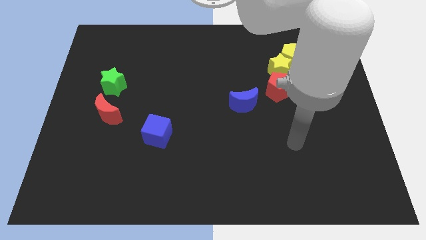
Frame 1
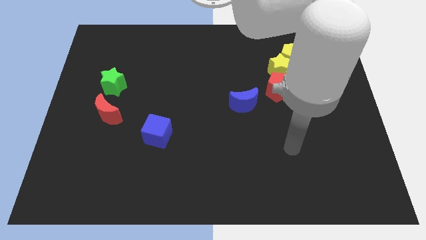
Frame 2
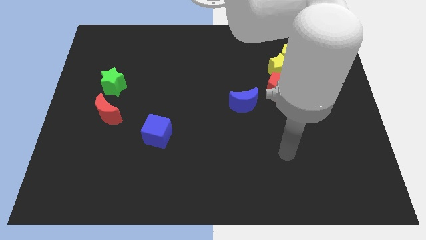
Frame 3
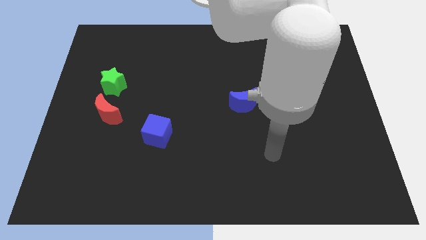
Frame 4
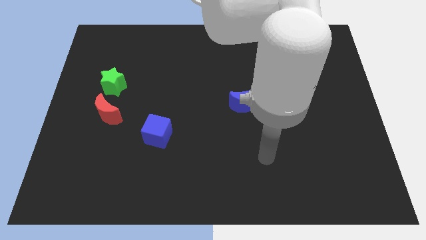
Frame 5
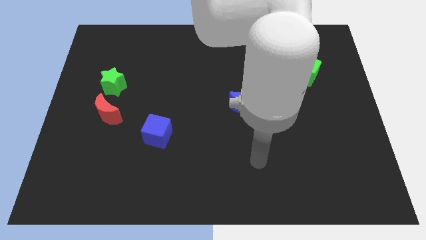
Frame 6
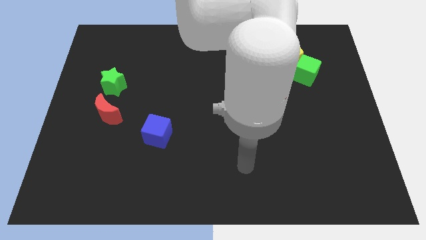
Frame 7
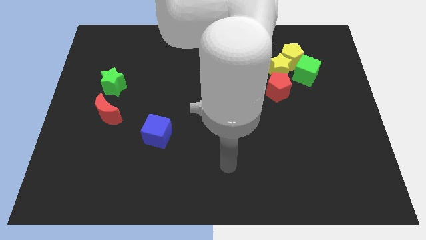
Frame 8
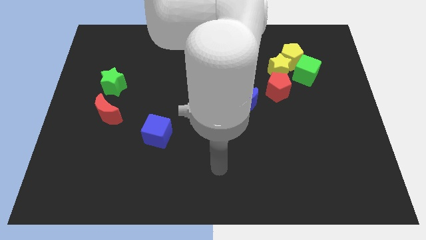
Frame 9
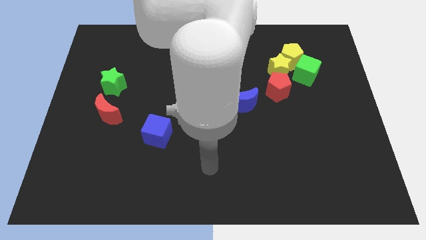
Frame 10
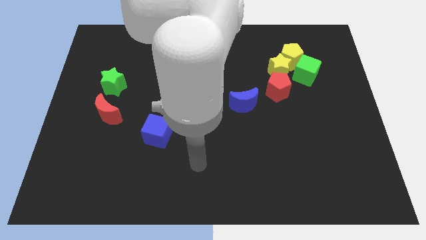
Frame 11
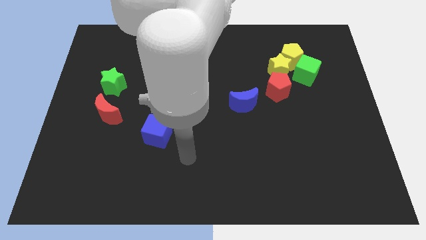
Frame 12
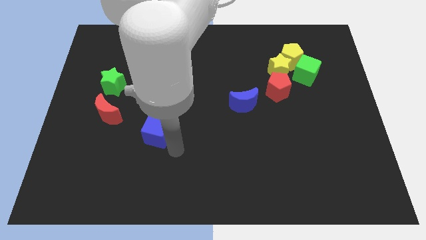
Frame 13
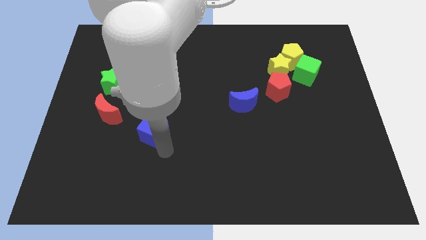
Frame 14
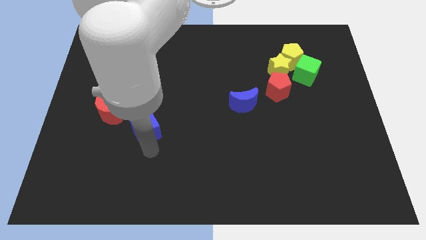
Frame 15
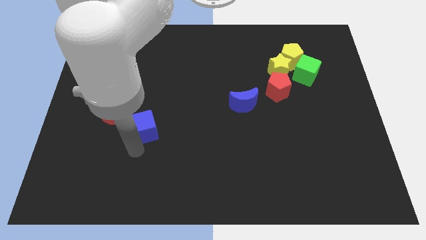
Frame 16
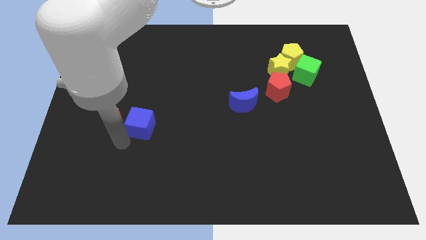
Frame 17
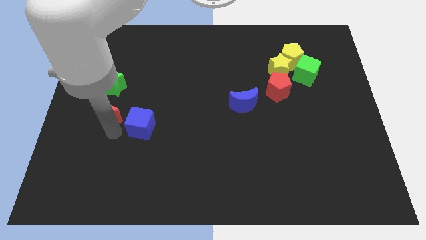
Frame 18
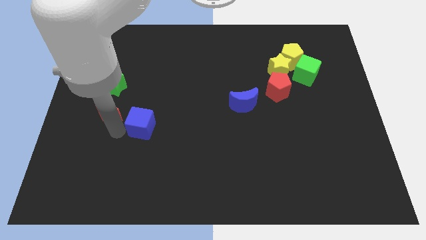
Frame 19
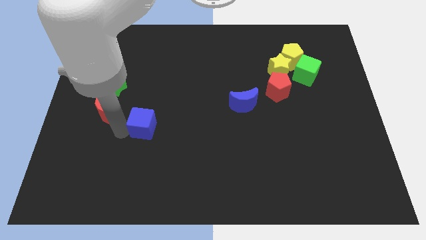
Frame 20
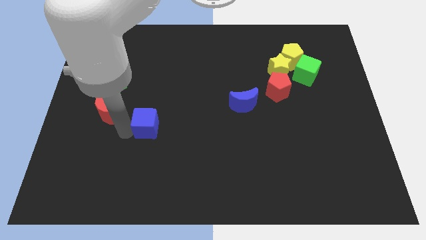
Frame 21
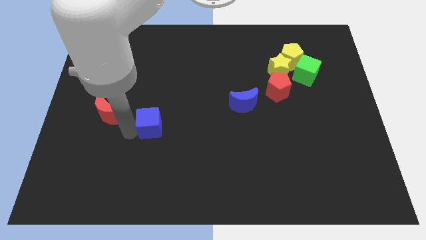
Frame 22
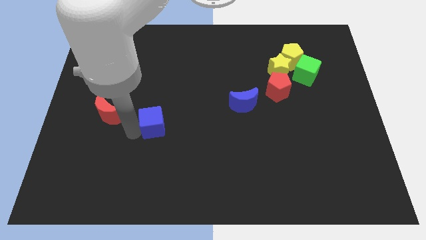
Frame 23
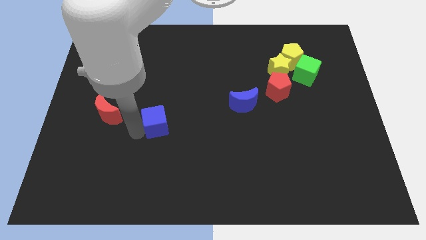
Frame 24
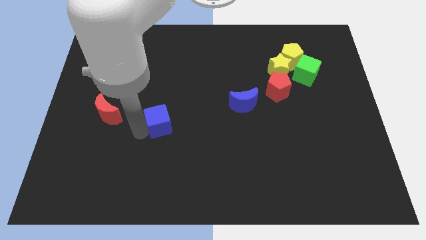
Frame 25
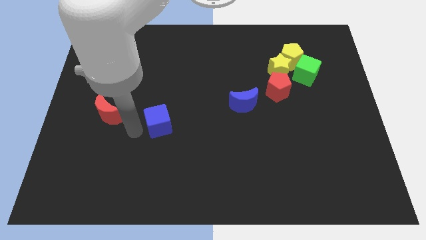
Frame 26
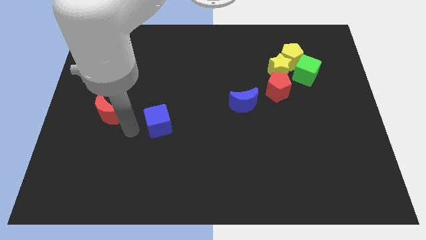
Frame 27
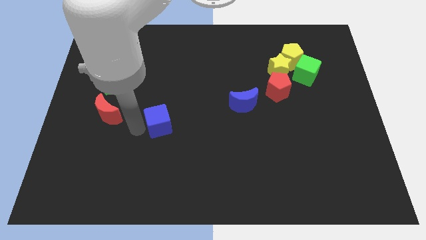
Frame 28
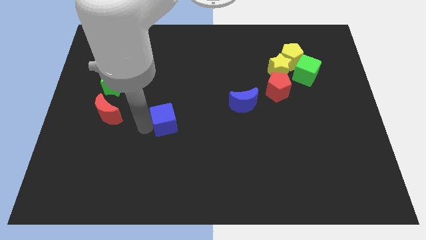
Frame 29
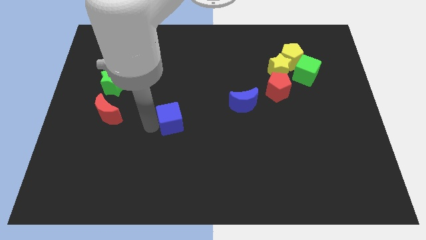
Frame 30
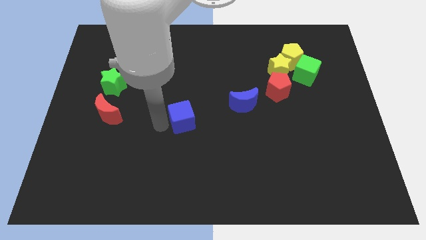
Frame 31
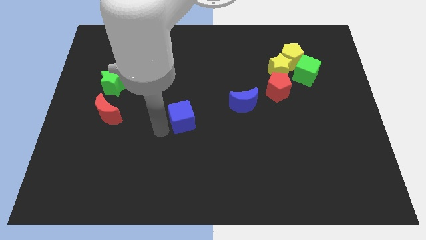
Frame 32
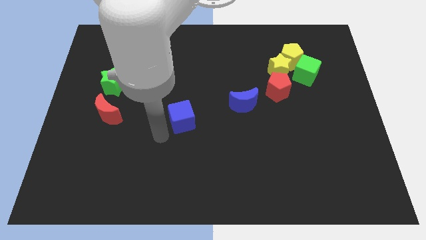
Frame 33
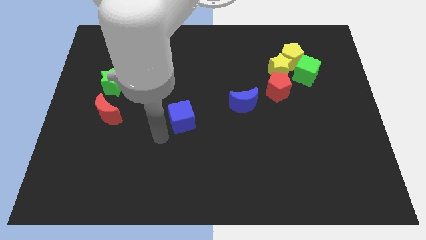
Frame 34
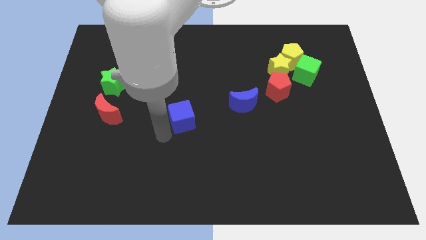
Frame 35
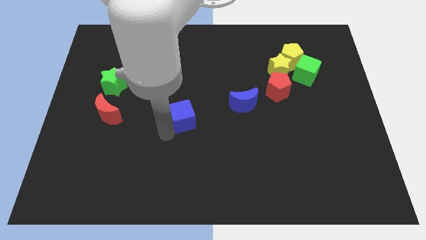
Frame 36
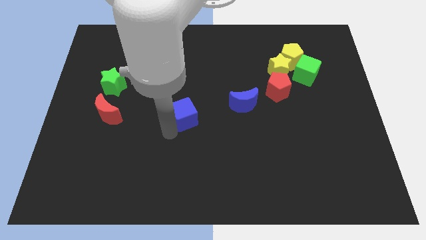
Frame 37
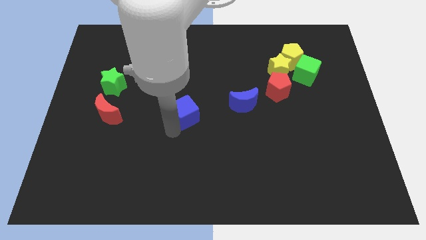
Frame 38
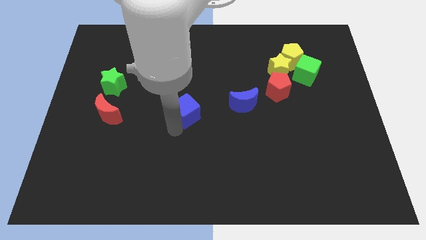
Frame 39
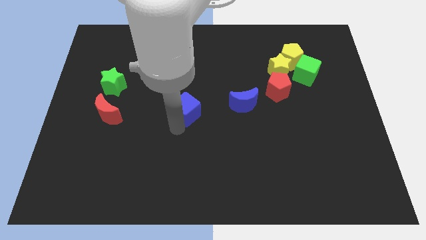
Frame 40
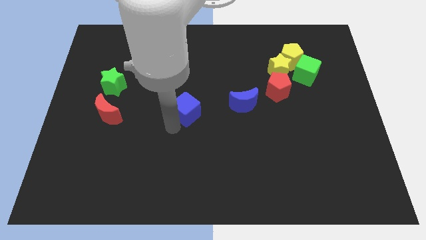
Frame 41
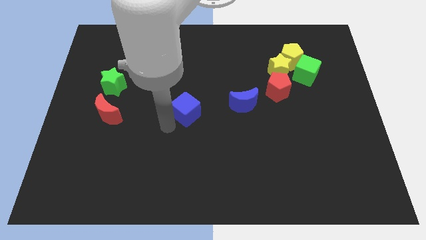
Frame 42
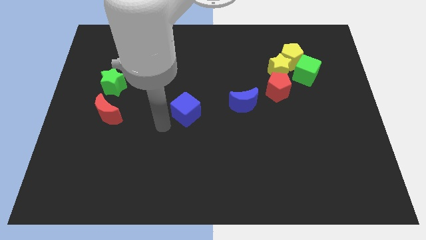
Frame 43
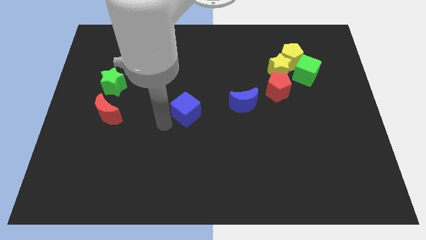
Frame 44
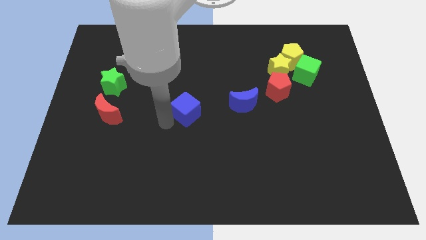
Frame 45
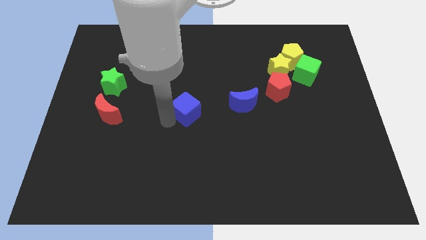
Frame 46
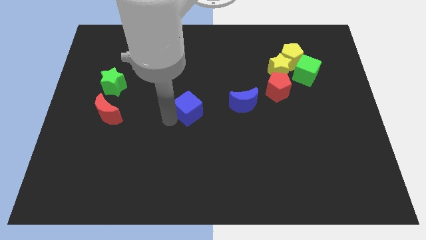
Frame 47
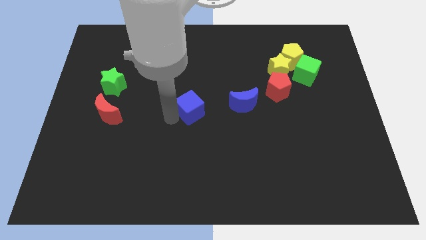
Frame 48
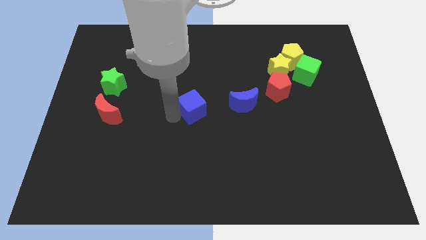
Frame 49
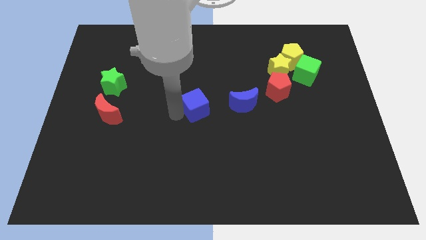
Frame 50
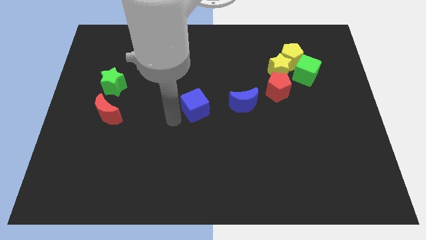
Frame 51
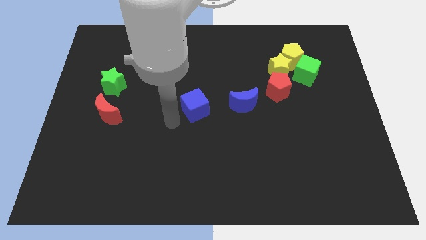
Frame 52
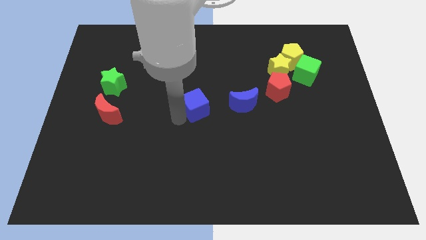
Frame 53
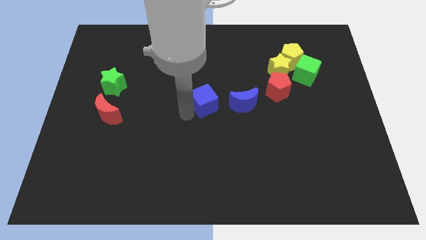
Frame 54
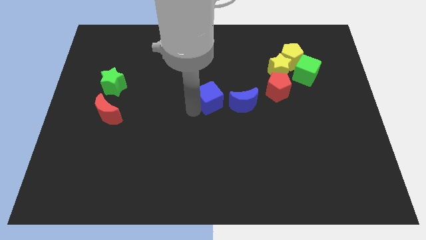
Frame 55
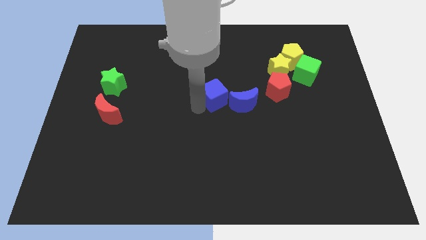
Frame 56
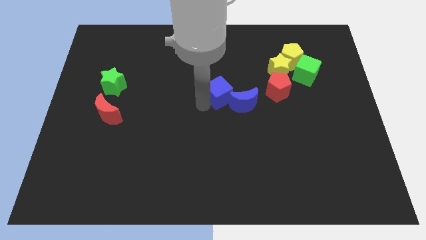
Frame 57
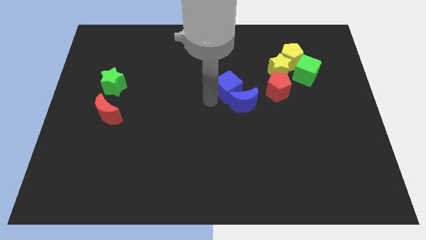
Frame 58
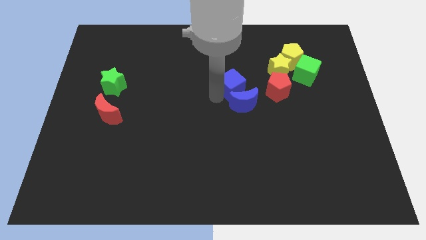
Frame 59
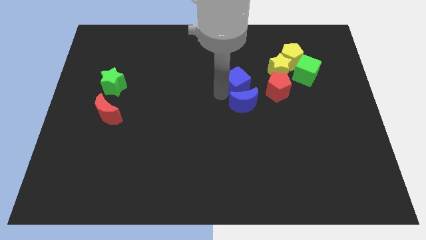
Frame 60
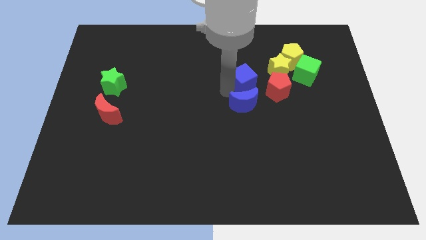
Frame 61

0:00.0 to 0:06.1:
move the blue cube to the top left side of the red pentagon
